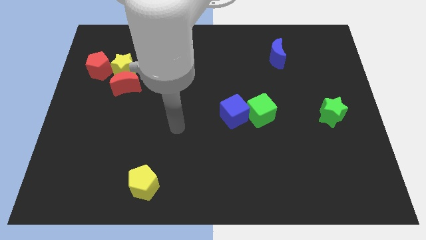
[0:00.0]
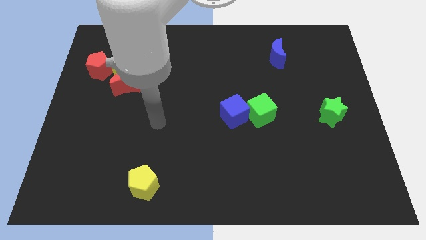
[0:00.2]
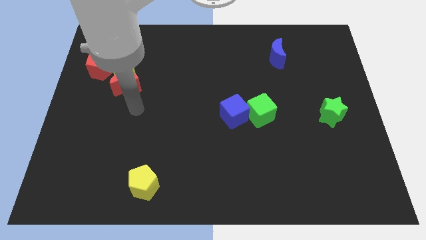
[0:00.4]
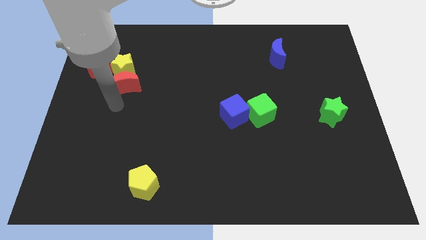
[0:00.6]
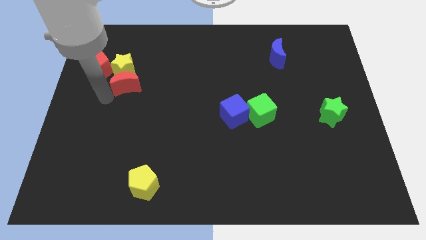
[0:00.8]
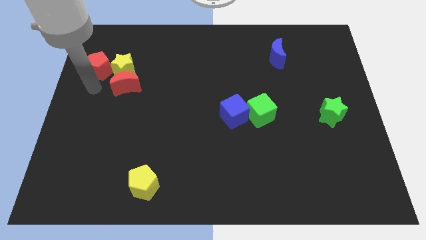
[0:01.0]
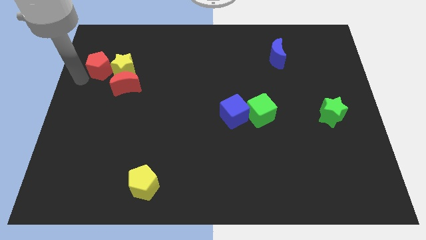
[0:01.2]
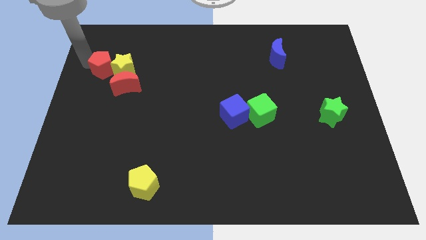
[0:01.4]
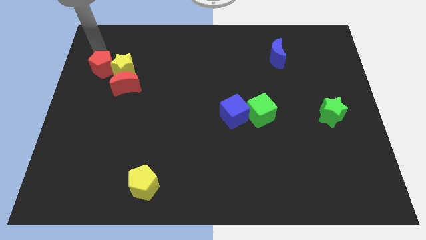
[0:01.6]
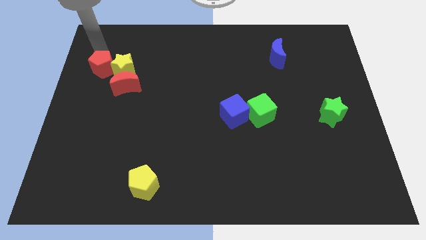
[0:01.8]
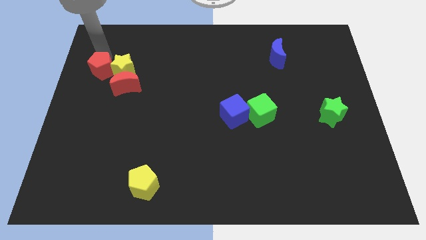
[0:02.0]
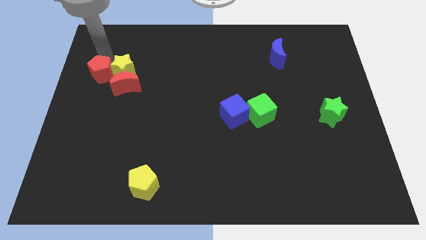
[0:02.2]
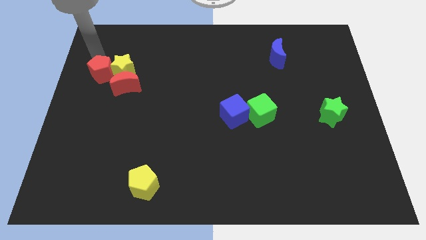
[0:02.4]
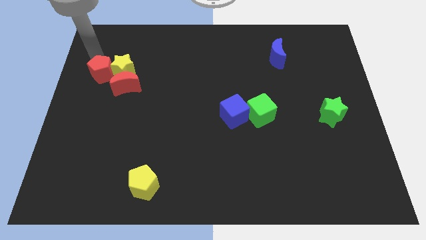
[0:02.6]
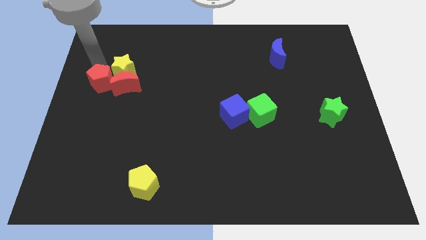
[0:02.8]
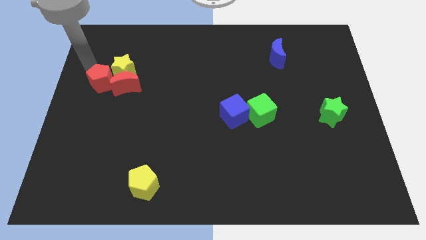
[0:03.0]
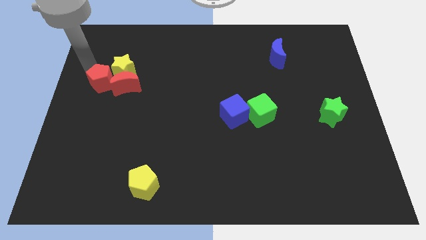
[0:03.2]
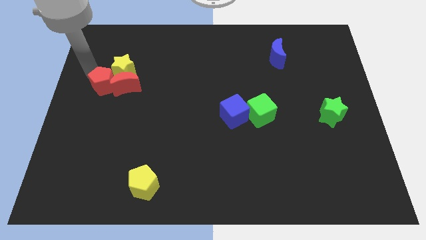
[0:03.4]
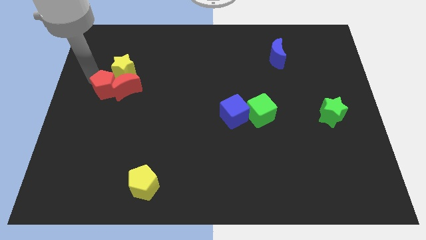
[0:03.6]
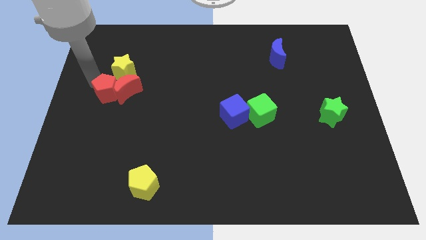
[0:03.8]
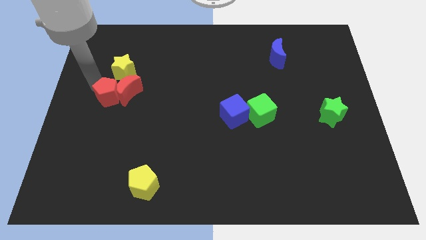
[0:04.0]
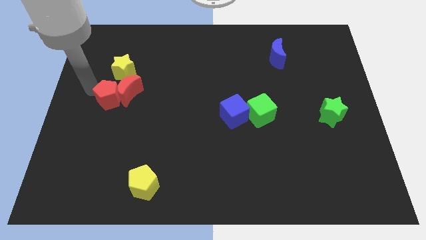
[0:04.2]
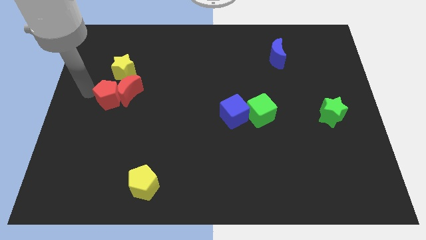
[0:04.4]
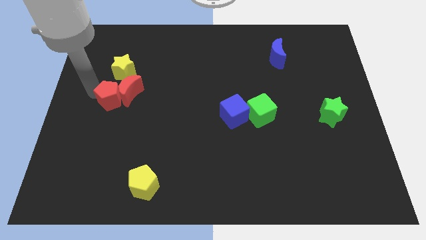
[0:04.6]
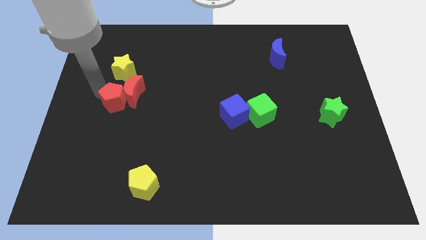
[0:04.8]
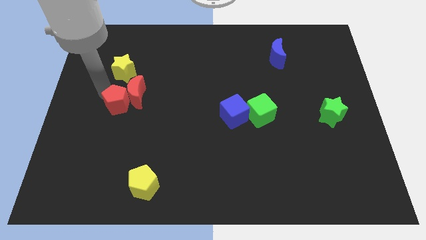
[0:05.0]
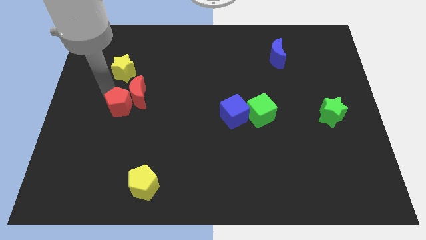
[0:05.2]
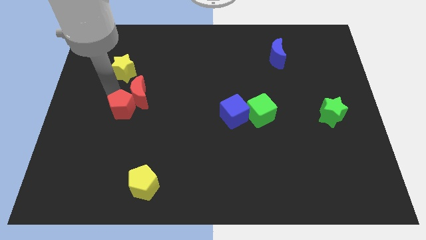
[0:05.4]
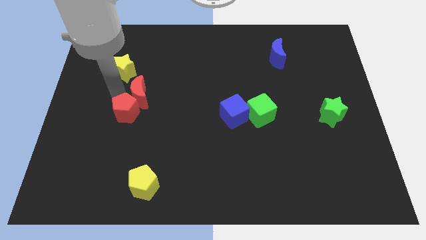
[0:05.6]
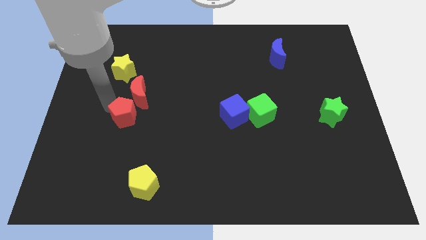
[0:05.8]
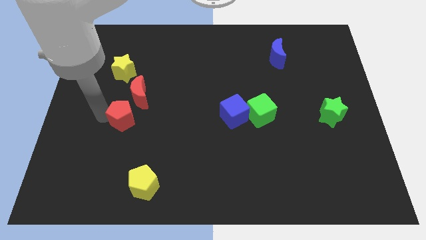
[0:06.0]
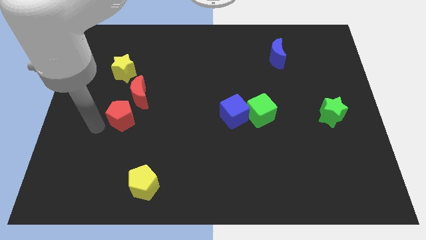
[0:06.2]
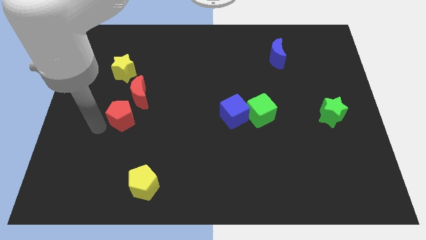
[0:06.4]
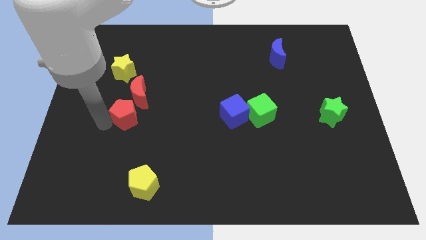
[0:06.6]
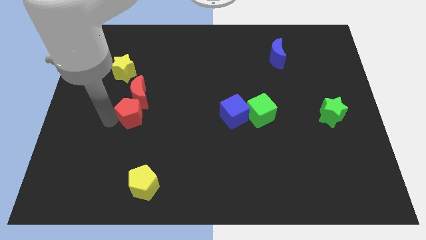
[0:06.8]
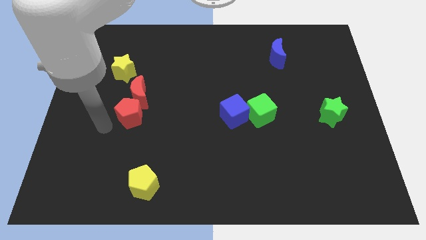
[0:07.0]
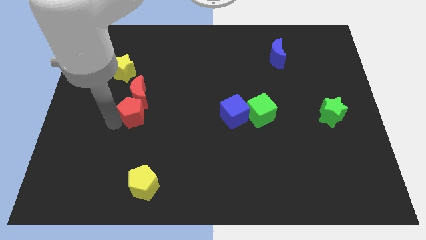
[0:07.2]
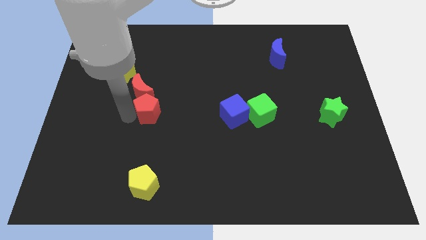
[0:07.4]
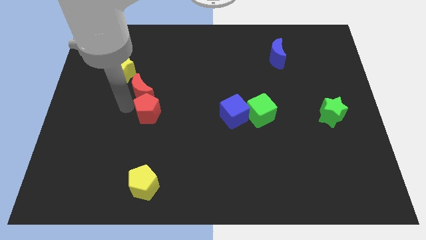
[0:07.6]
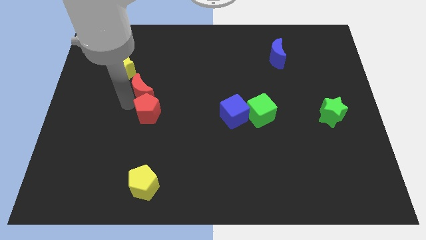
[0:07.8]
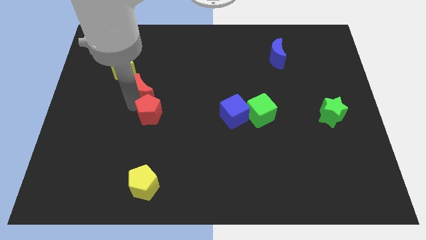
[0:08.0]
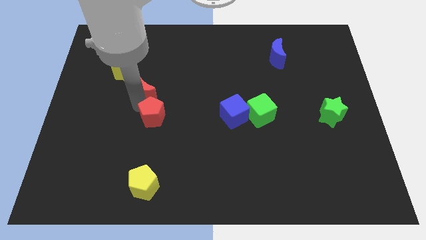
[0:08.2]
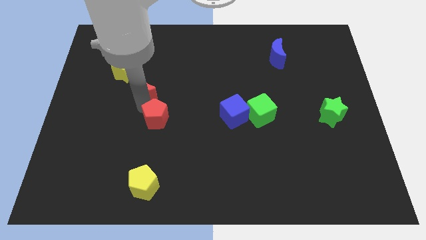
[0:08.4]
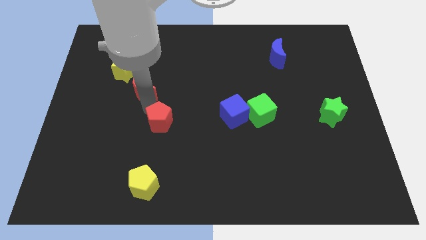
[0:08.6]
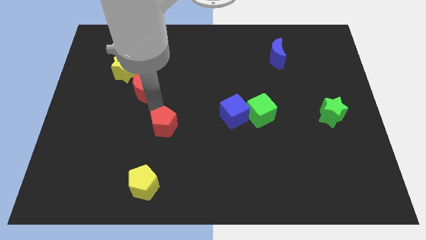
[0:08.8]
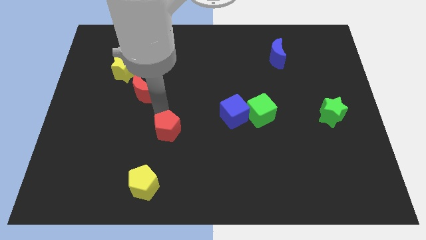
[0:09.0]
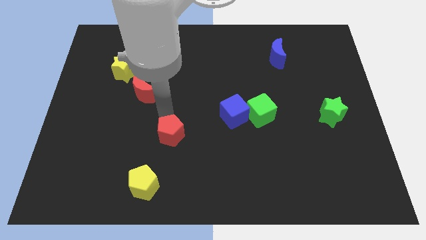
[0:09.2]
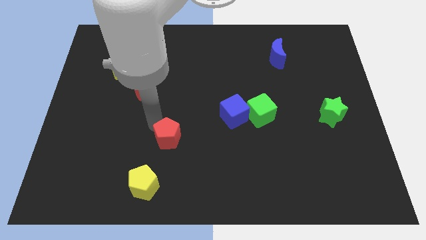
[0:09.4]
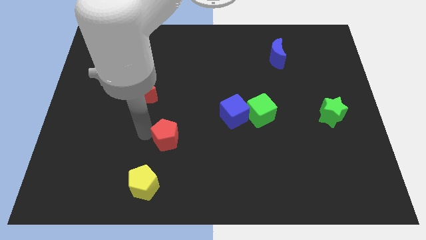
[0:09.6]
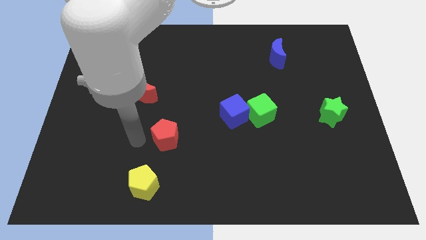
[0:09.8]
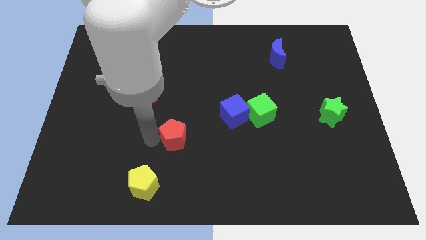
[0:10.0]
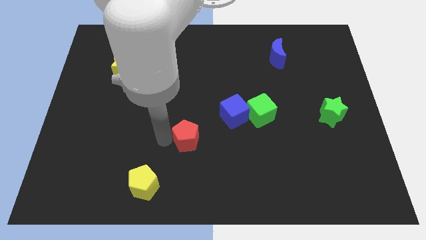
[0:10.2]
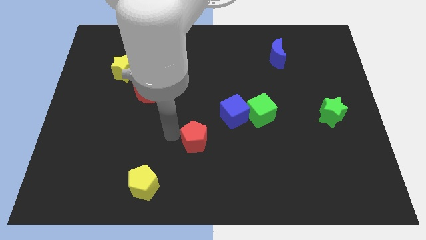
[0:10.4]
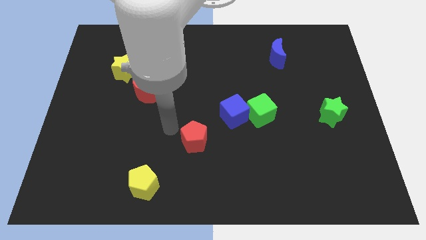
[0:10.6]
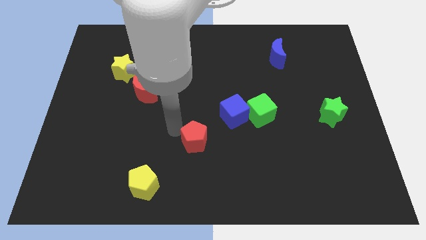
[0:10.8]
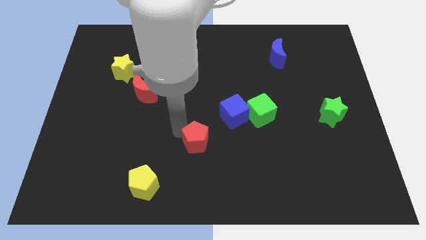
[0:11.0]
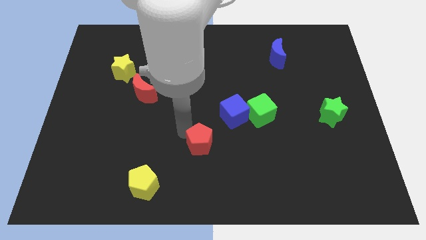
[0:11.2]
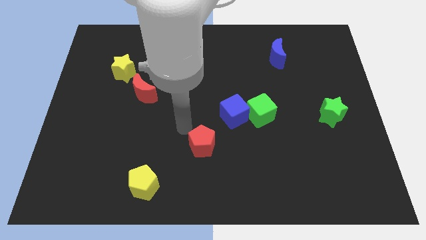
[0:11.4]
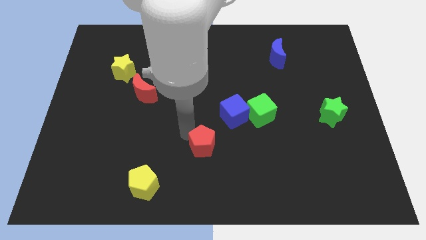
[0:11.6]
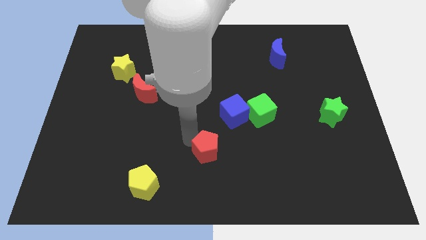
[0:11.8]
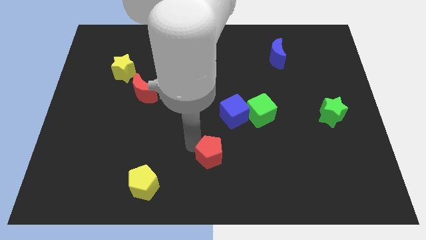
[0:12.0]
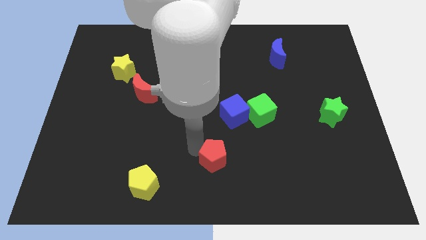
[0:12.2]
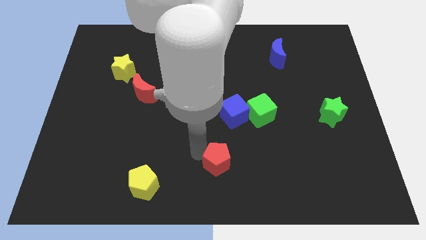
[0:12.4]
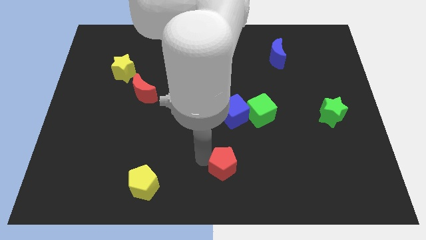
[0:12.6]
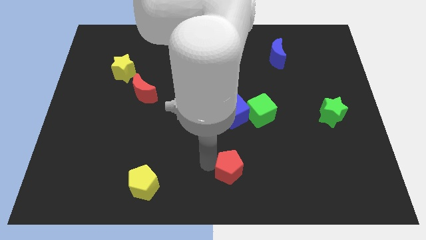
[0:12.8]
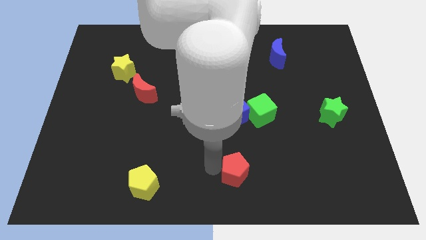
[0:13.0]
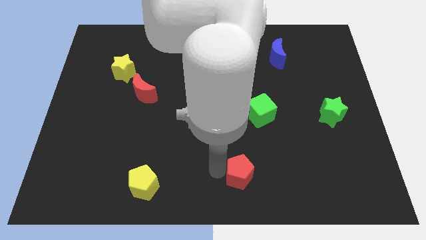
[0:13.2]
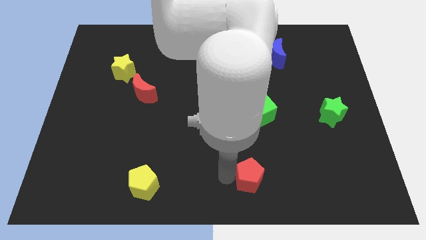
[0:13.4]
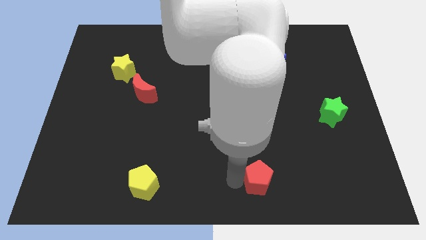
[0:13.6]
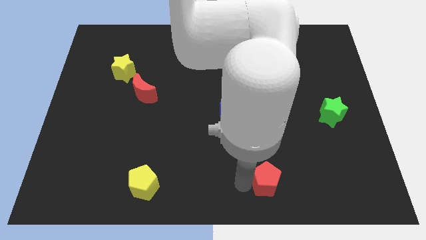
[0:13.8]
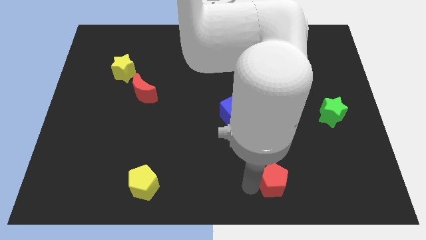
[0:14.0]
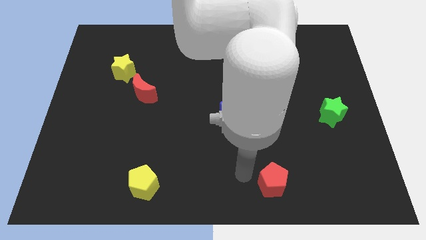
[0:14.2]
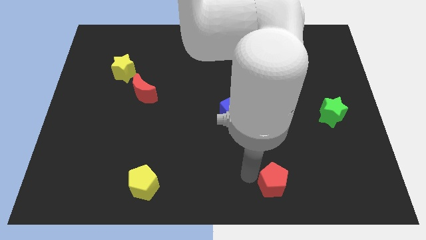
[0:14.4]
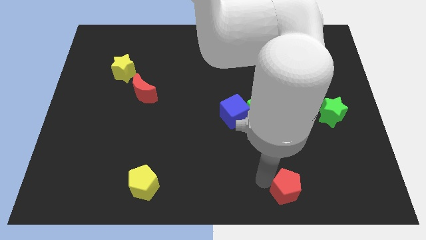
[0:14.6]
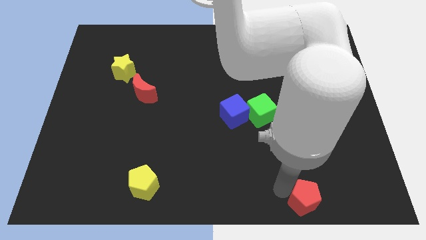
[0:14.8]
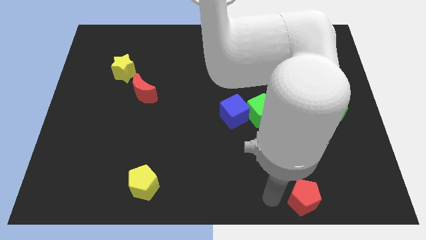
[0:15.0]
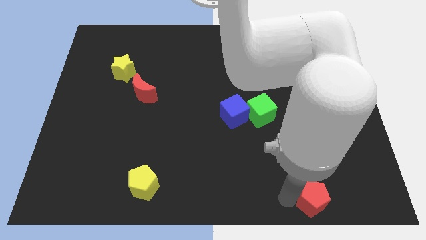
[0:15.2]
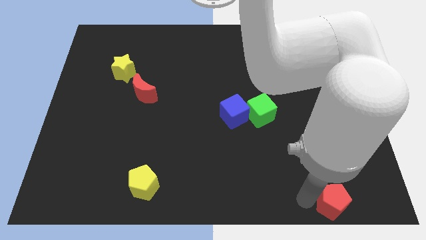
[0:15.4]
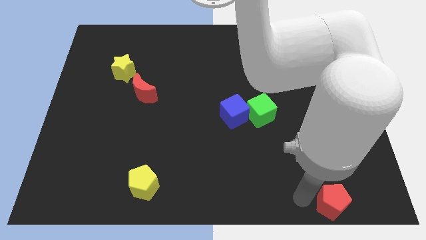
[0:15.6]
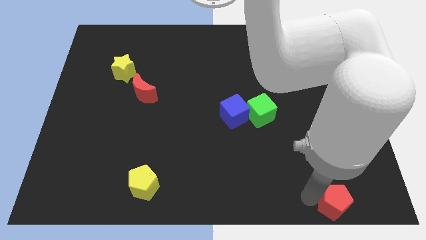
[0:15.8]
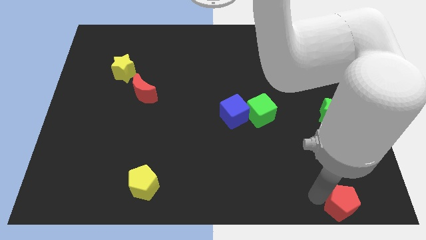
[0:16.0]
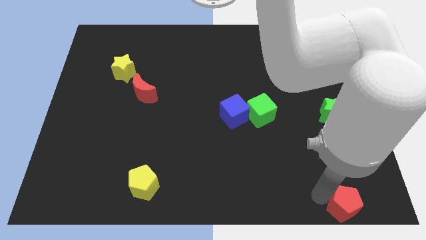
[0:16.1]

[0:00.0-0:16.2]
slide the red pentagon to the bottom right
